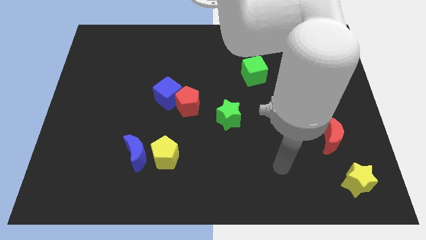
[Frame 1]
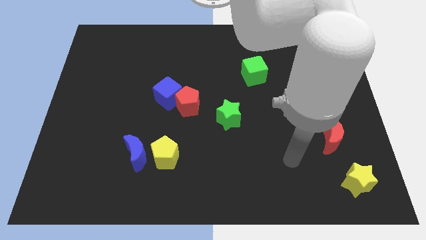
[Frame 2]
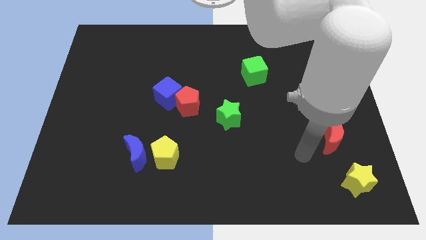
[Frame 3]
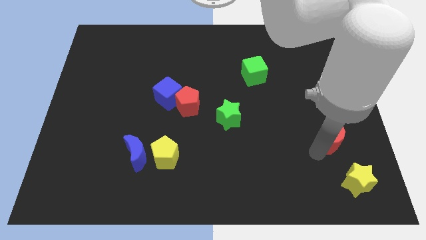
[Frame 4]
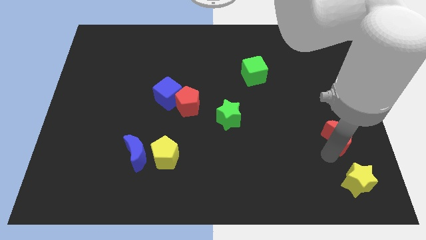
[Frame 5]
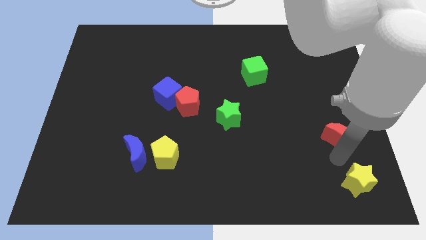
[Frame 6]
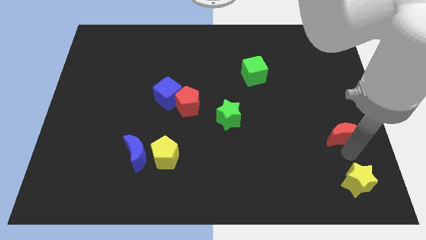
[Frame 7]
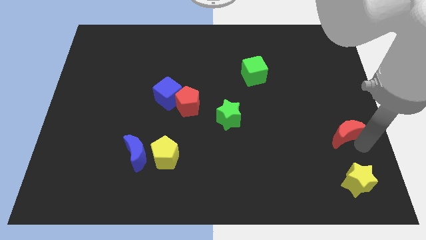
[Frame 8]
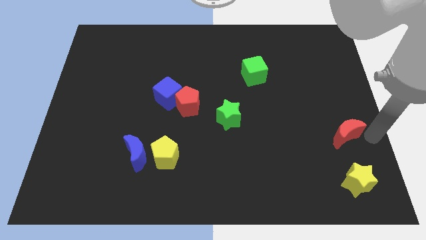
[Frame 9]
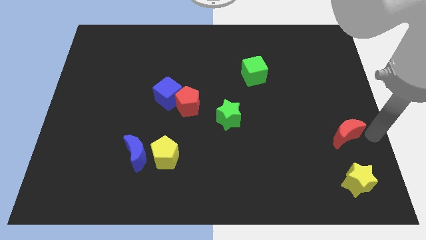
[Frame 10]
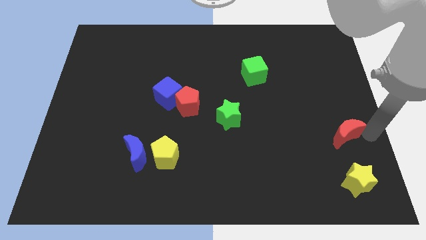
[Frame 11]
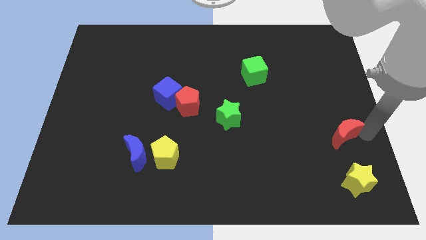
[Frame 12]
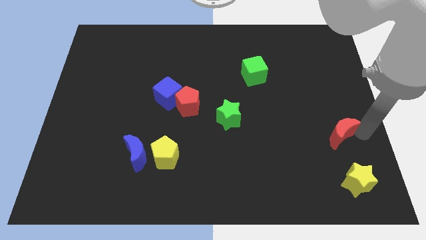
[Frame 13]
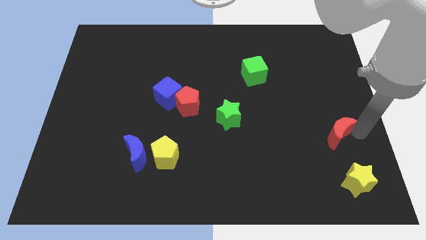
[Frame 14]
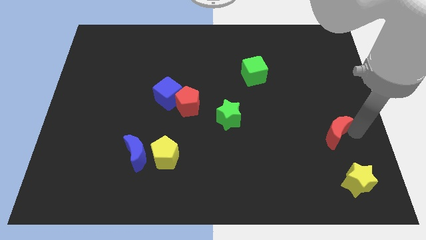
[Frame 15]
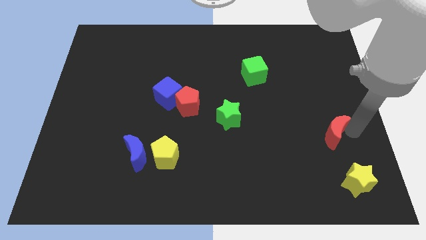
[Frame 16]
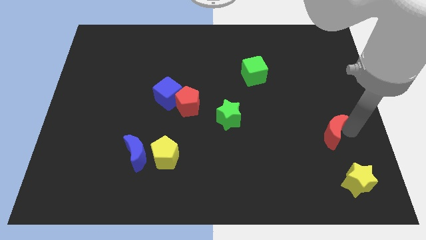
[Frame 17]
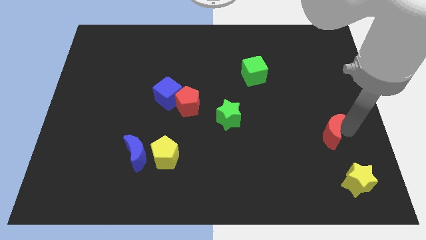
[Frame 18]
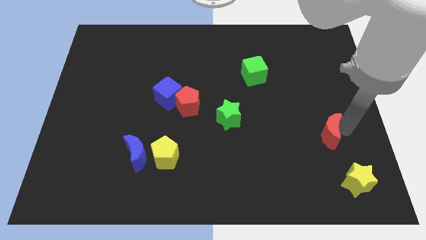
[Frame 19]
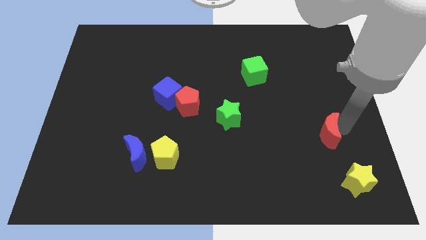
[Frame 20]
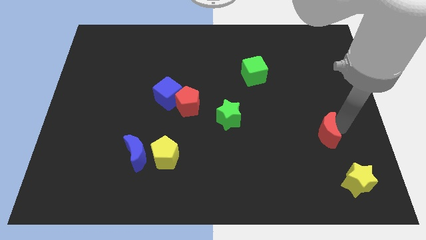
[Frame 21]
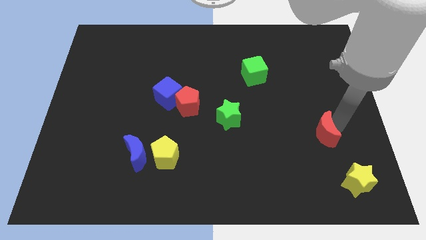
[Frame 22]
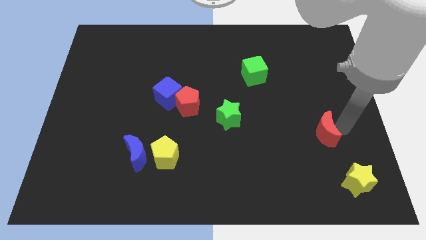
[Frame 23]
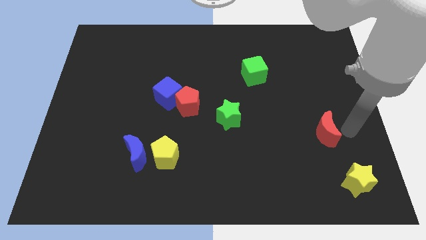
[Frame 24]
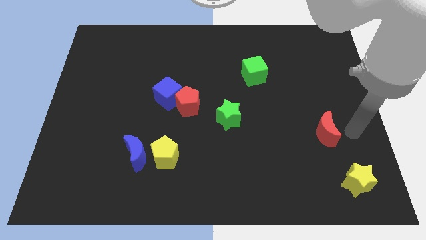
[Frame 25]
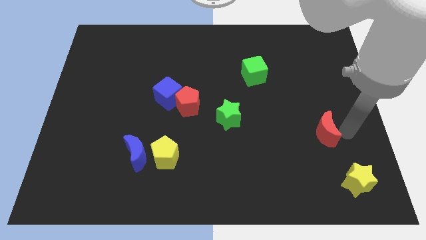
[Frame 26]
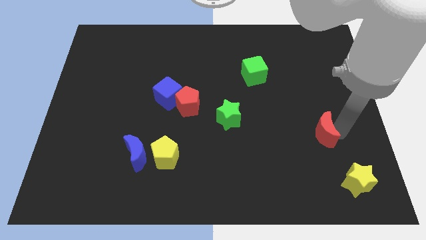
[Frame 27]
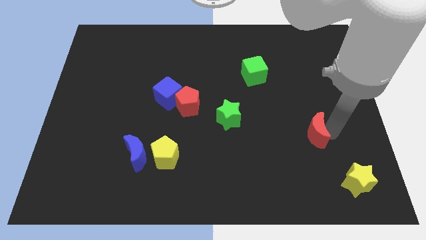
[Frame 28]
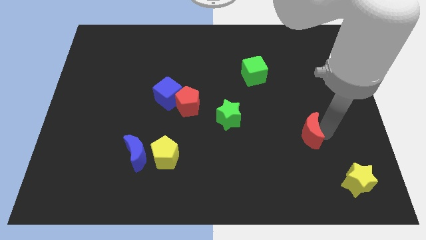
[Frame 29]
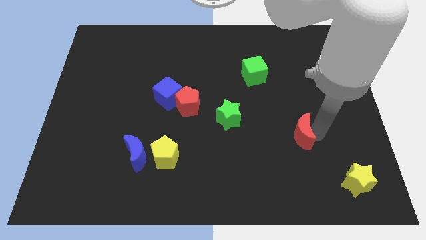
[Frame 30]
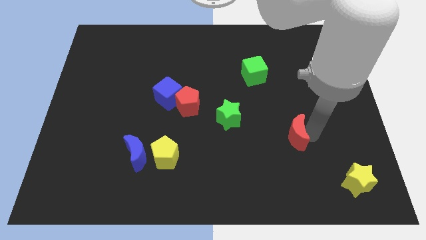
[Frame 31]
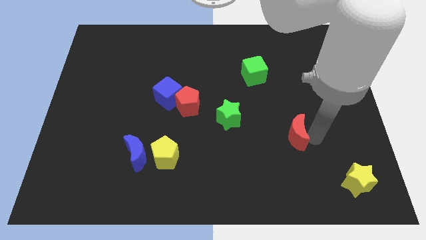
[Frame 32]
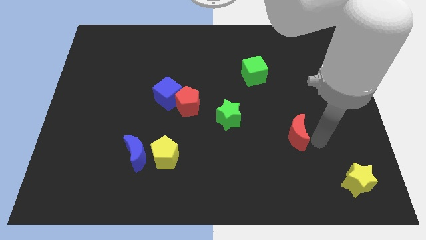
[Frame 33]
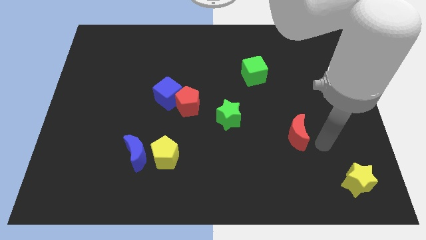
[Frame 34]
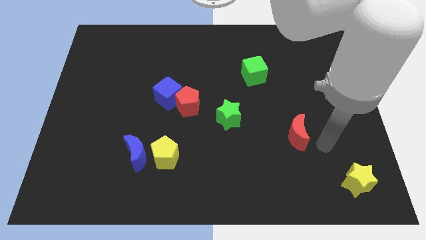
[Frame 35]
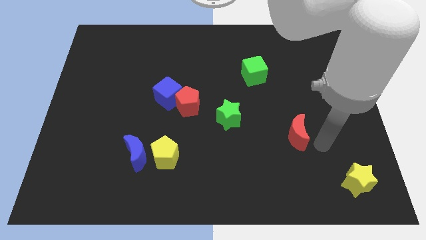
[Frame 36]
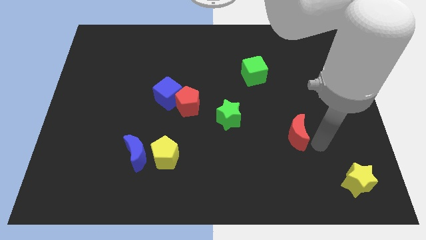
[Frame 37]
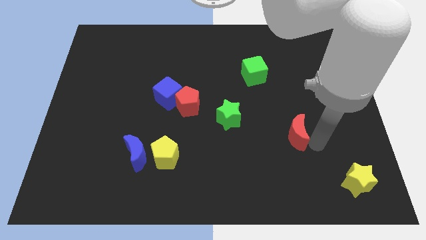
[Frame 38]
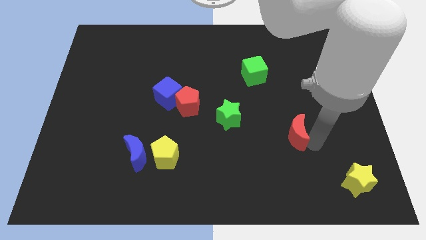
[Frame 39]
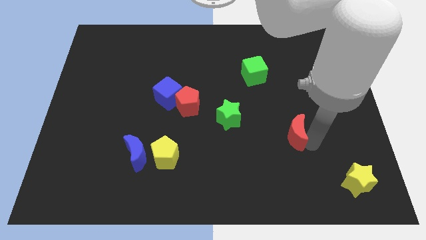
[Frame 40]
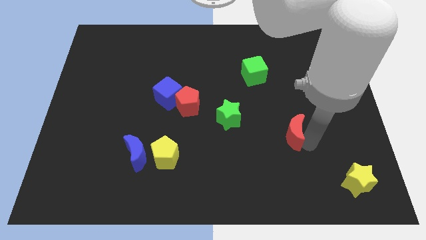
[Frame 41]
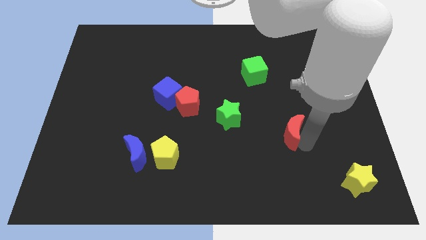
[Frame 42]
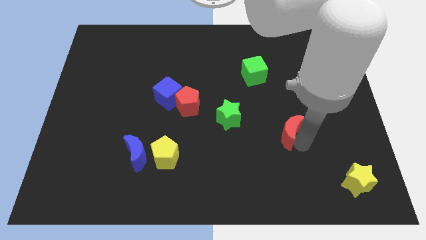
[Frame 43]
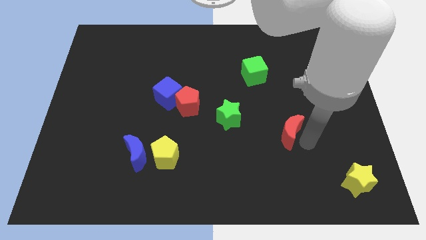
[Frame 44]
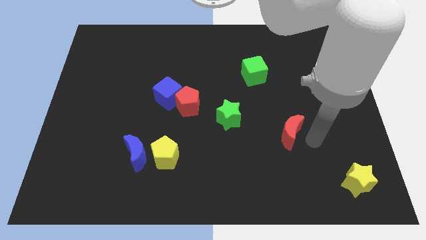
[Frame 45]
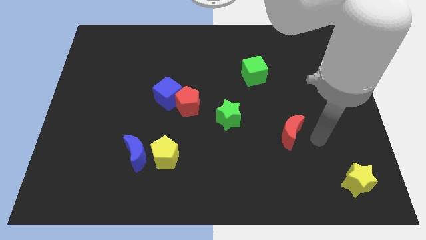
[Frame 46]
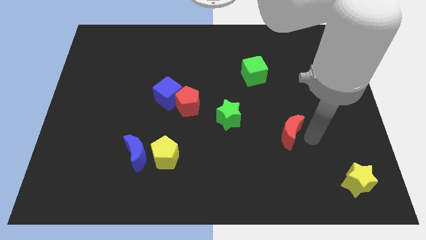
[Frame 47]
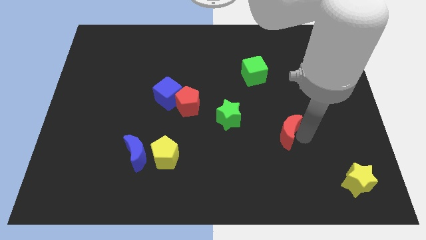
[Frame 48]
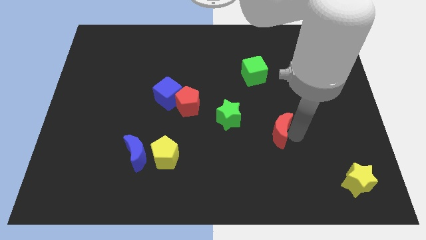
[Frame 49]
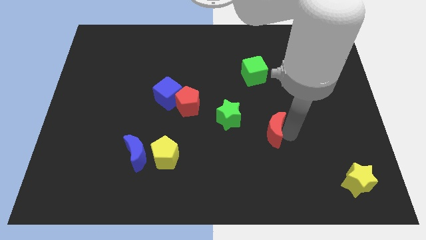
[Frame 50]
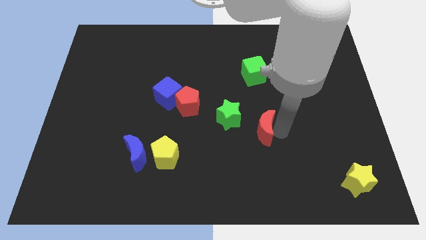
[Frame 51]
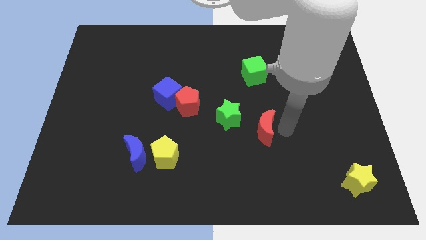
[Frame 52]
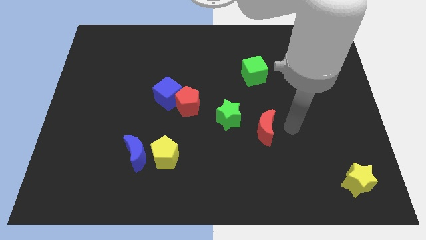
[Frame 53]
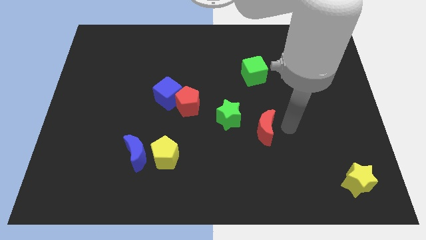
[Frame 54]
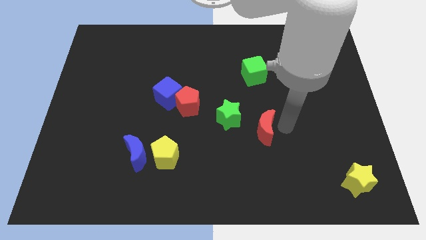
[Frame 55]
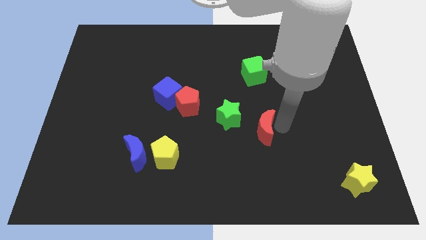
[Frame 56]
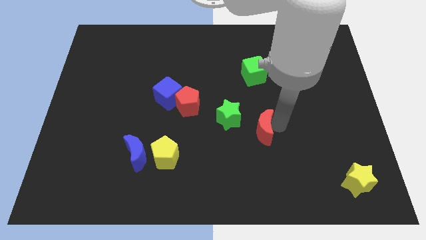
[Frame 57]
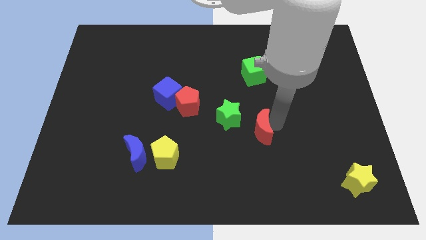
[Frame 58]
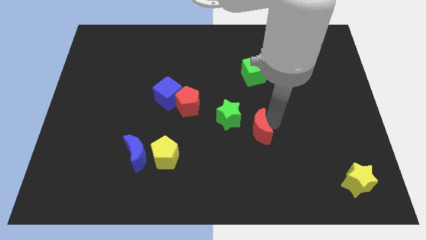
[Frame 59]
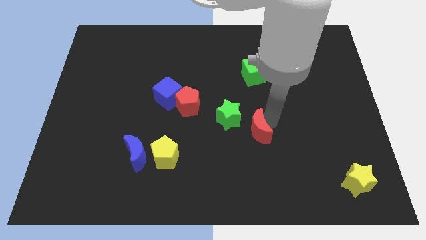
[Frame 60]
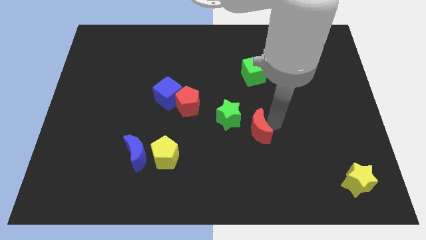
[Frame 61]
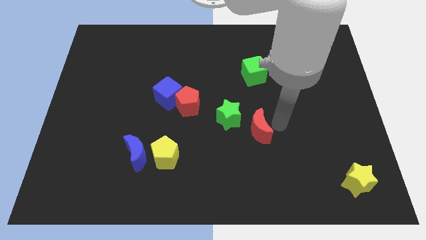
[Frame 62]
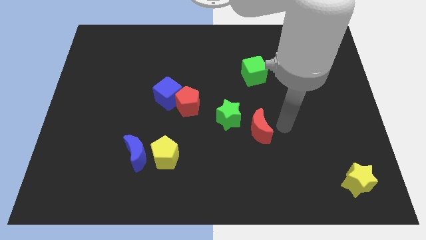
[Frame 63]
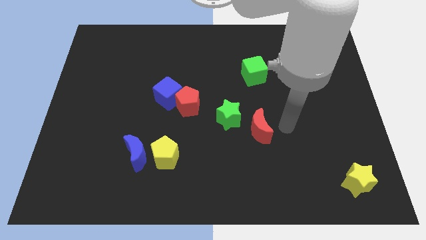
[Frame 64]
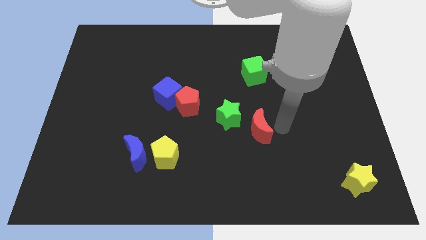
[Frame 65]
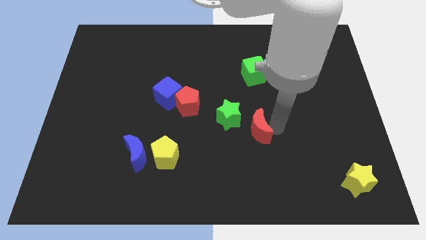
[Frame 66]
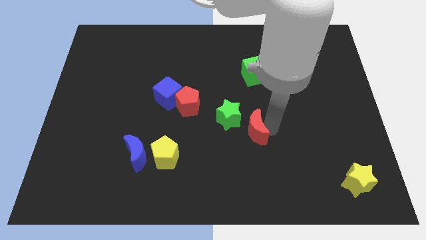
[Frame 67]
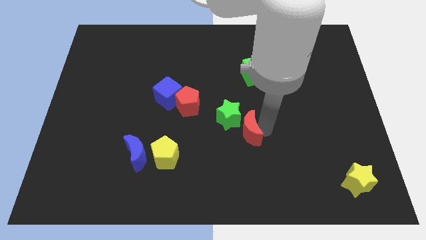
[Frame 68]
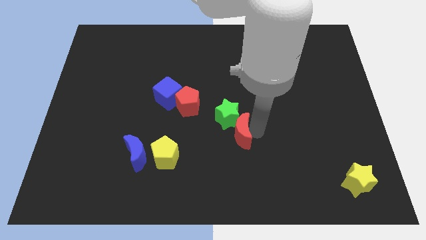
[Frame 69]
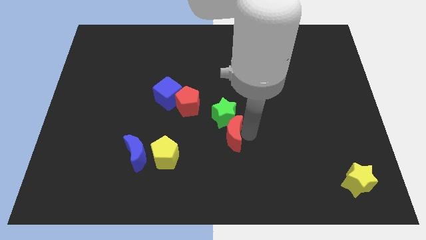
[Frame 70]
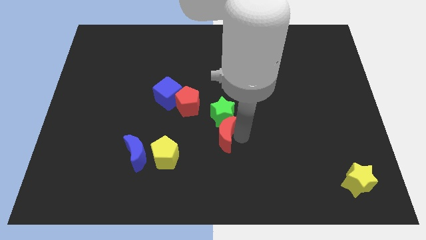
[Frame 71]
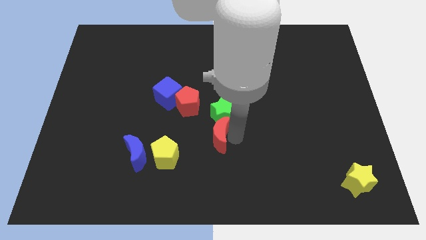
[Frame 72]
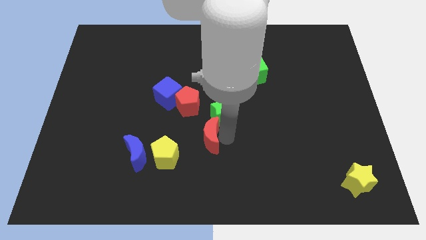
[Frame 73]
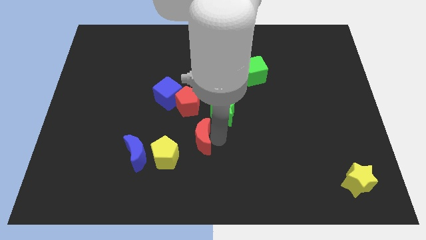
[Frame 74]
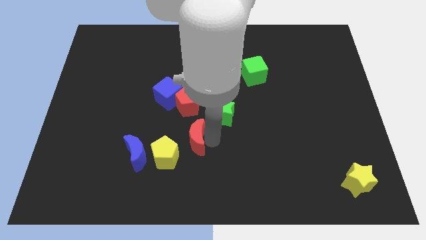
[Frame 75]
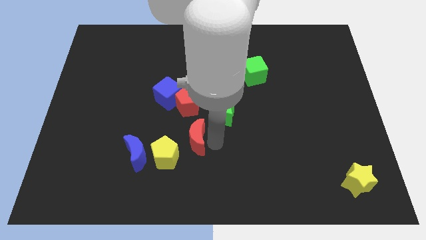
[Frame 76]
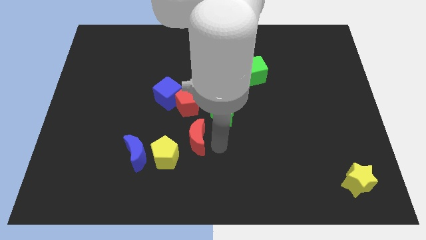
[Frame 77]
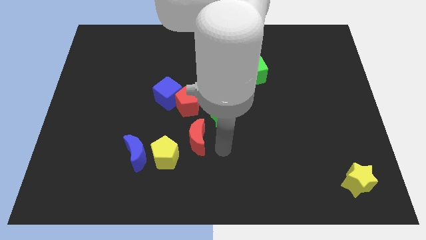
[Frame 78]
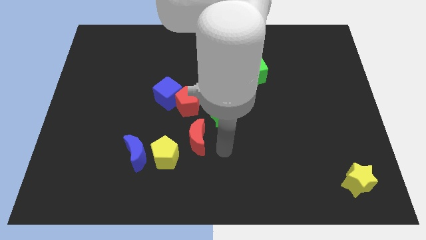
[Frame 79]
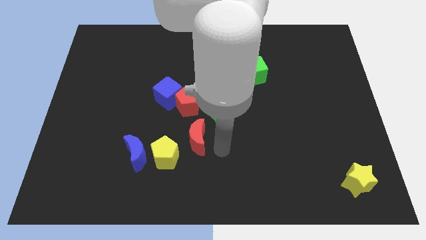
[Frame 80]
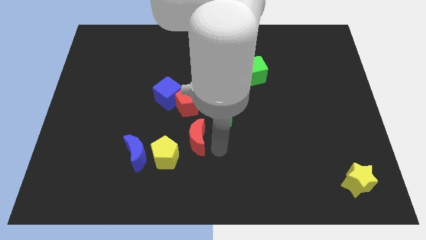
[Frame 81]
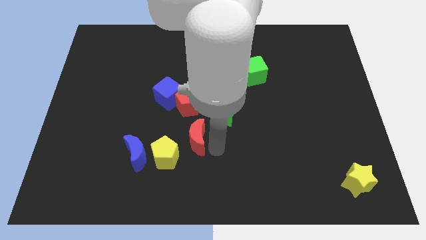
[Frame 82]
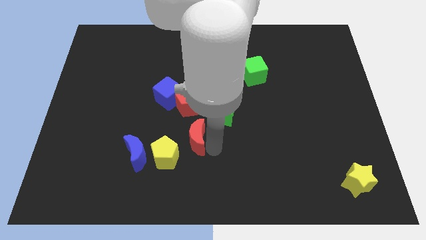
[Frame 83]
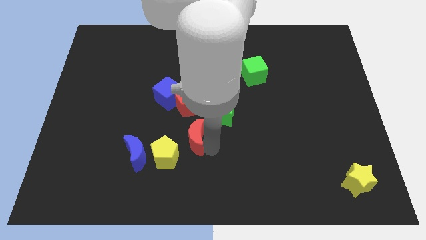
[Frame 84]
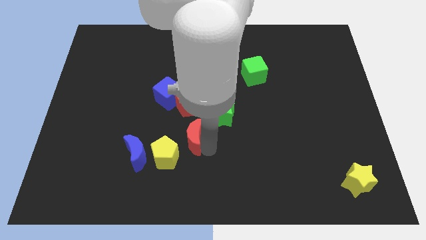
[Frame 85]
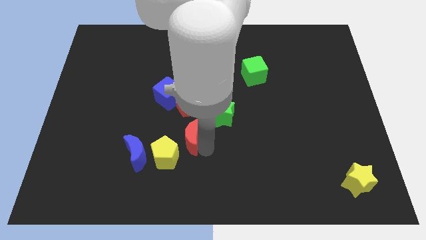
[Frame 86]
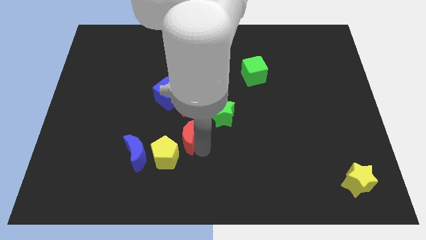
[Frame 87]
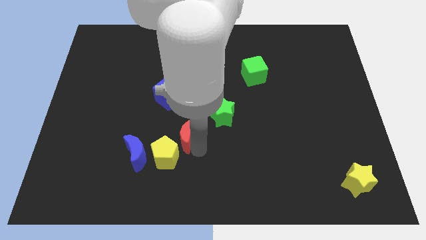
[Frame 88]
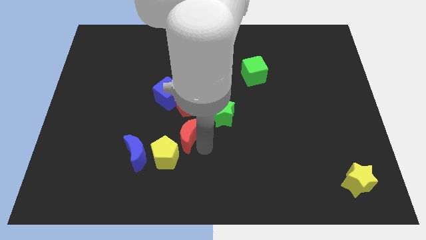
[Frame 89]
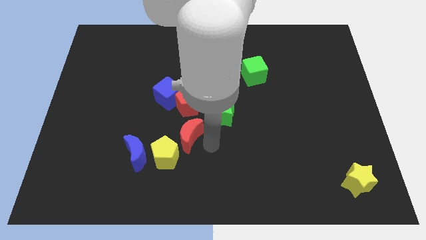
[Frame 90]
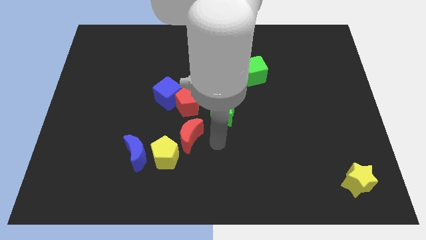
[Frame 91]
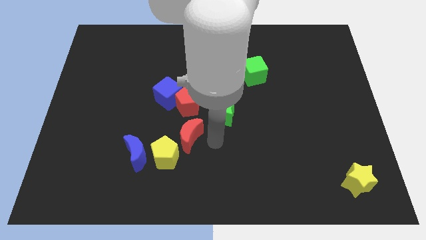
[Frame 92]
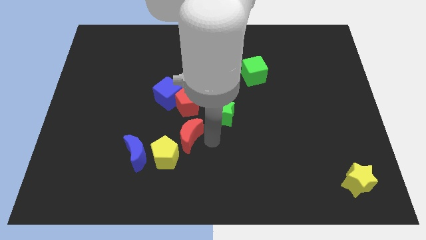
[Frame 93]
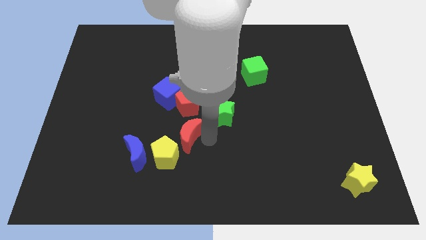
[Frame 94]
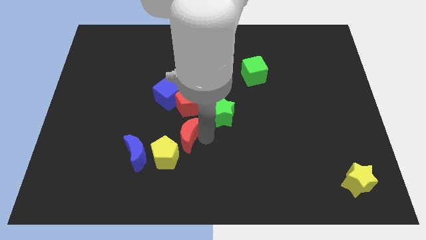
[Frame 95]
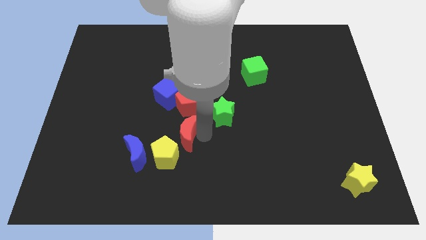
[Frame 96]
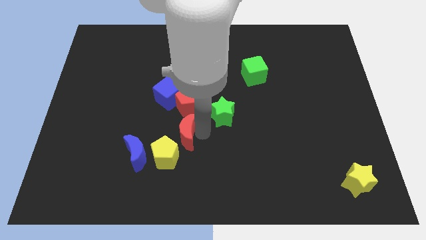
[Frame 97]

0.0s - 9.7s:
push the red moon to the bottom of the blue cube
